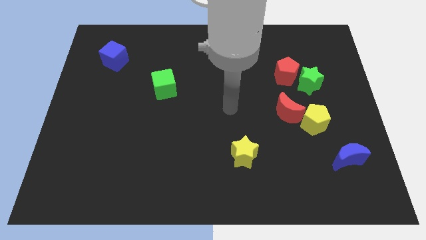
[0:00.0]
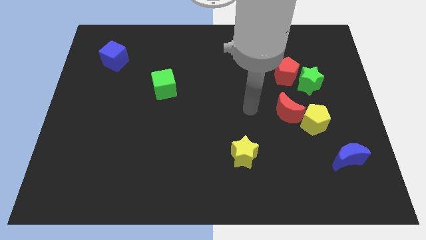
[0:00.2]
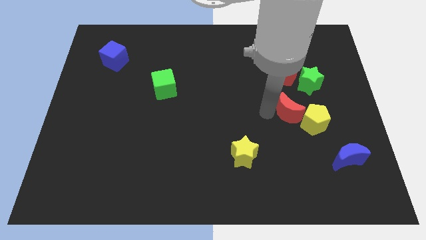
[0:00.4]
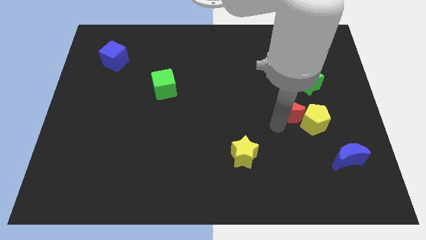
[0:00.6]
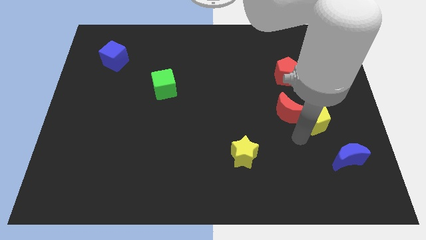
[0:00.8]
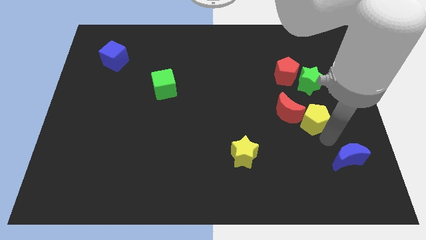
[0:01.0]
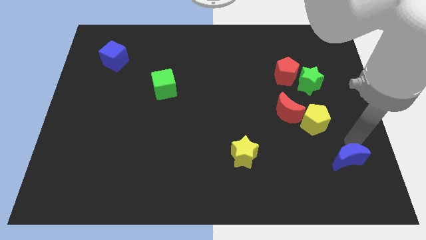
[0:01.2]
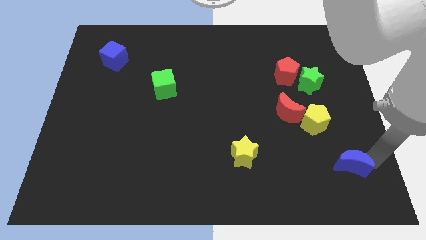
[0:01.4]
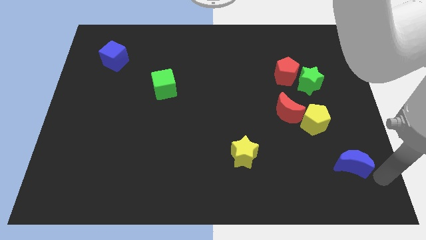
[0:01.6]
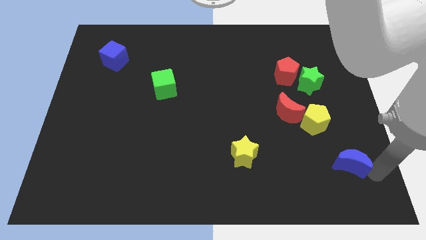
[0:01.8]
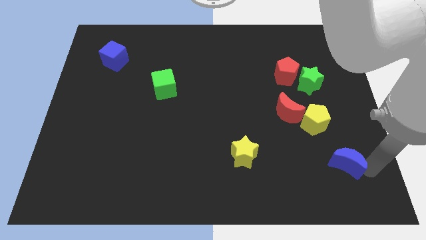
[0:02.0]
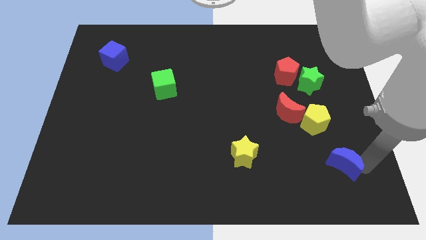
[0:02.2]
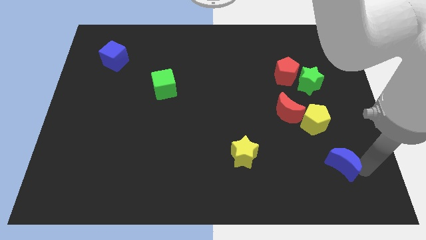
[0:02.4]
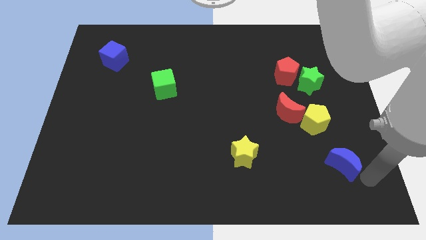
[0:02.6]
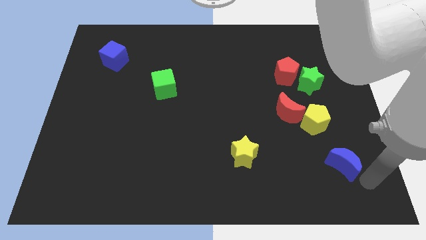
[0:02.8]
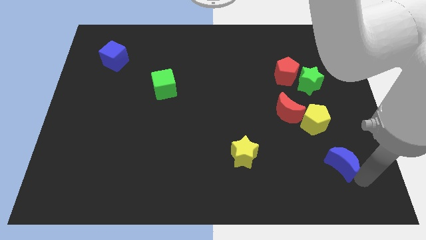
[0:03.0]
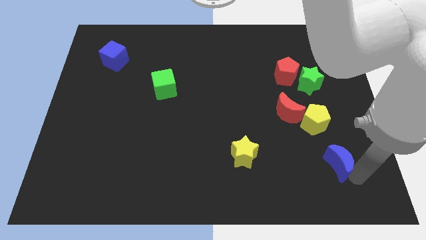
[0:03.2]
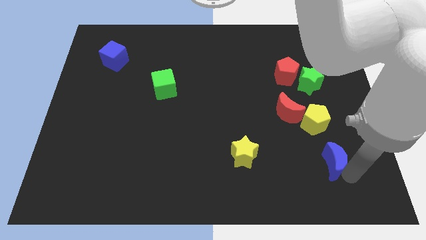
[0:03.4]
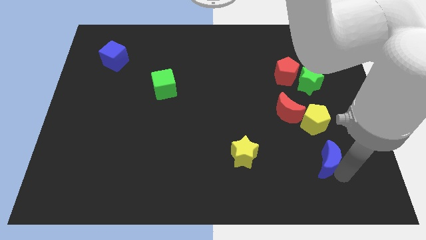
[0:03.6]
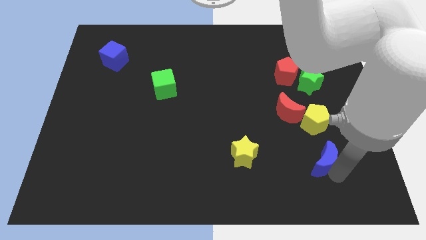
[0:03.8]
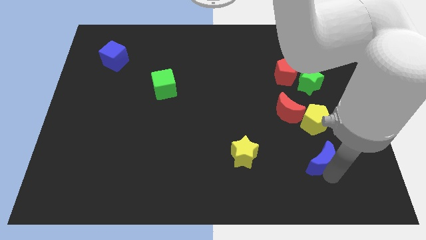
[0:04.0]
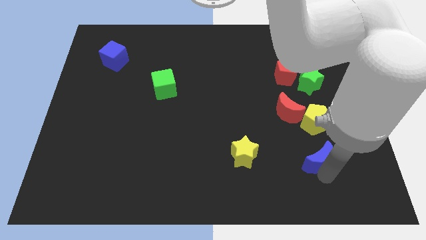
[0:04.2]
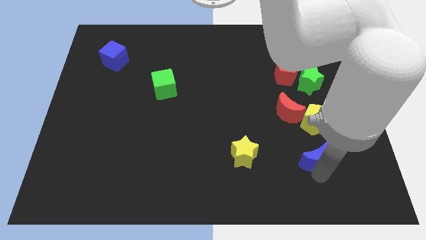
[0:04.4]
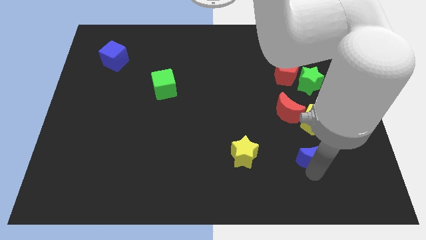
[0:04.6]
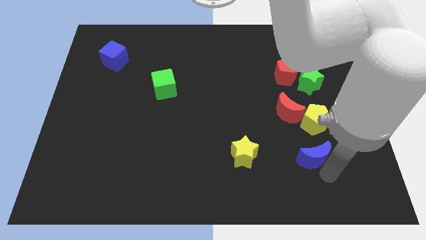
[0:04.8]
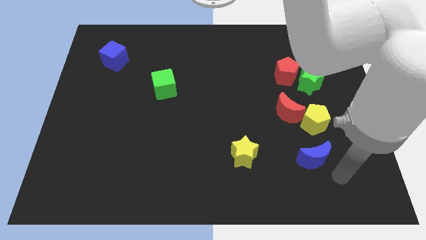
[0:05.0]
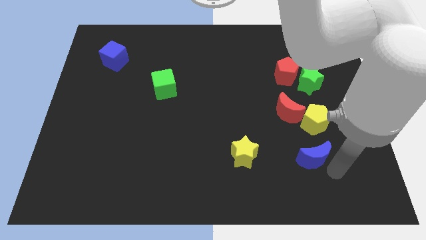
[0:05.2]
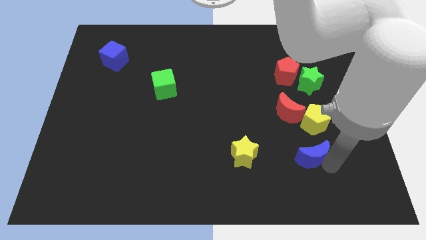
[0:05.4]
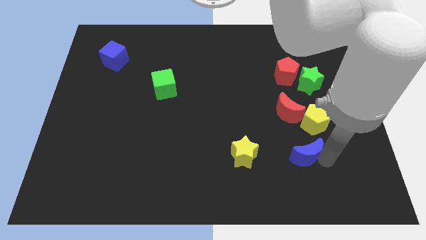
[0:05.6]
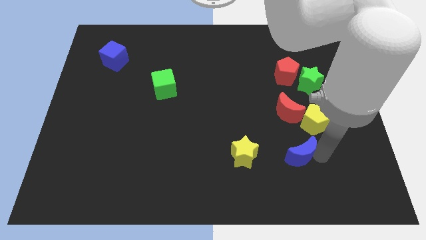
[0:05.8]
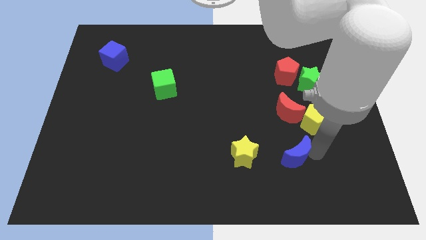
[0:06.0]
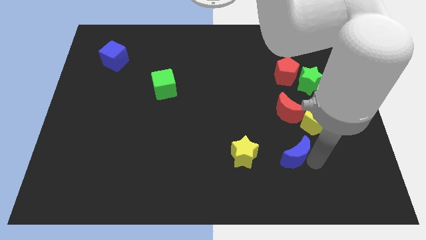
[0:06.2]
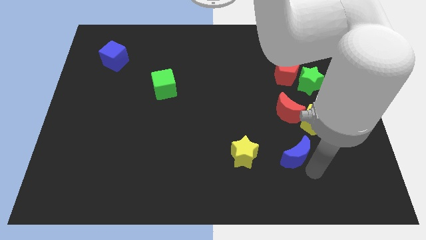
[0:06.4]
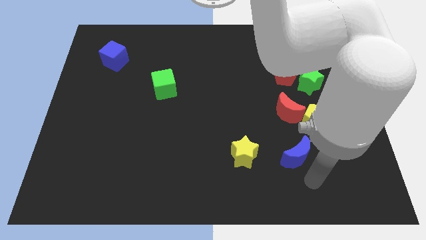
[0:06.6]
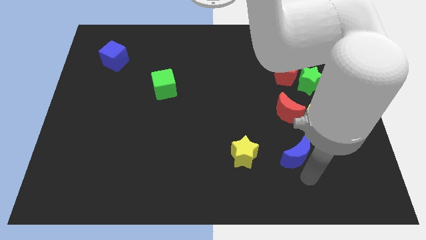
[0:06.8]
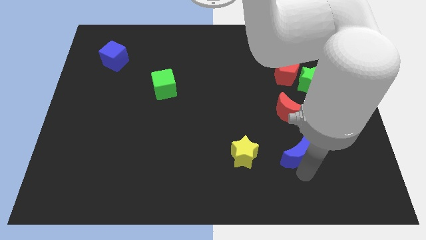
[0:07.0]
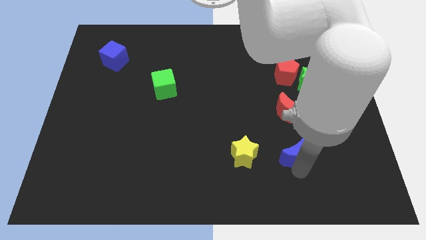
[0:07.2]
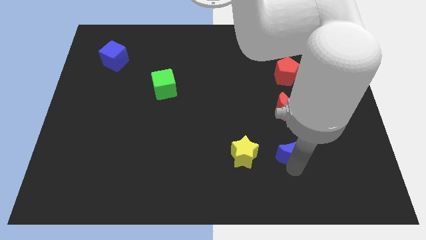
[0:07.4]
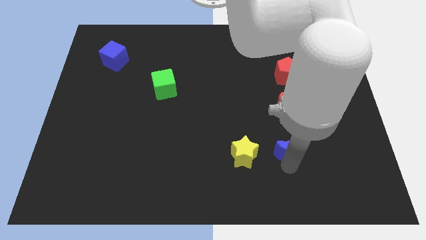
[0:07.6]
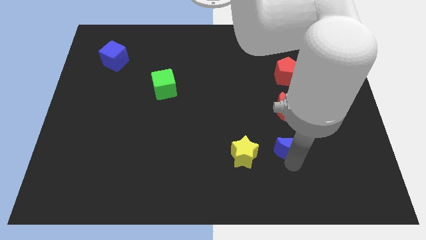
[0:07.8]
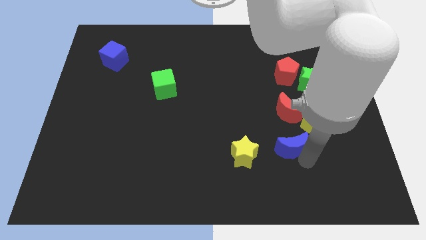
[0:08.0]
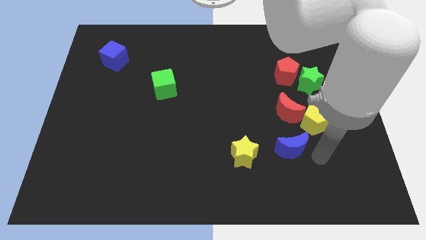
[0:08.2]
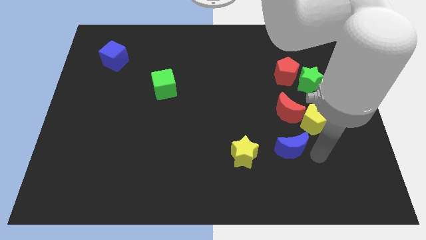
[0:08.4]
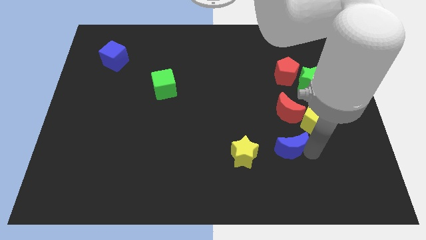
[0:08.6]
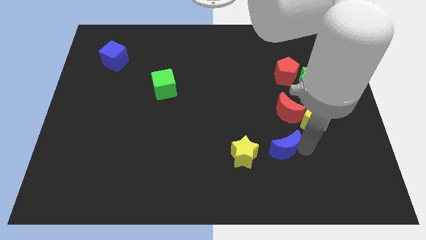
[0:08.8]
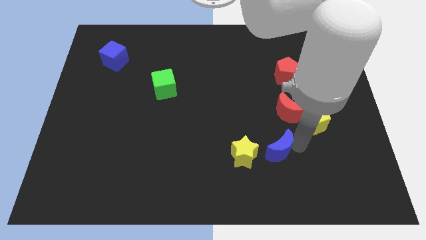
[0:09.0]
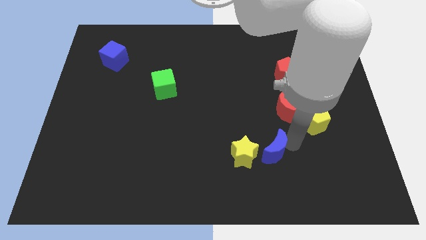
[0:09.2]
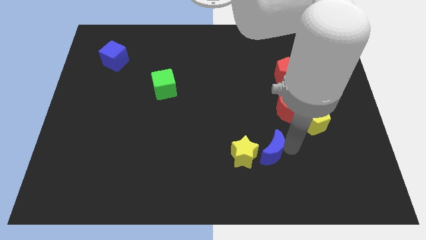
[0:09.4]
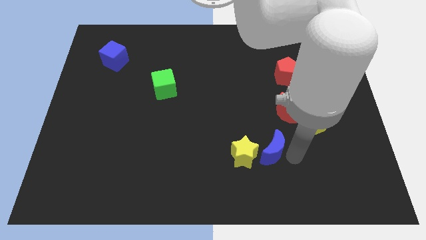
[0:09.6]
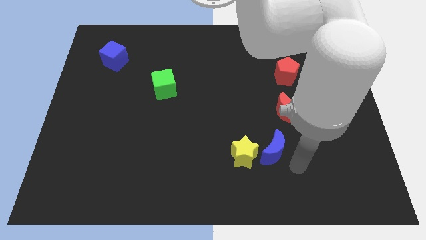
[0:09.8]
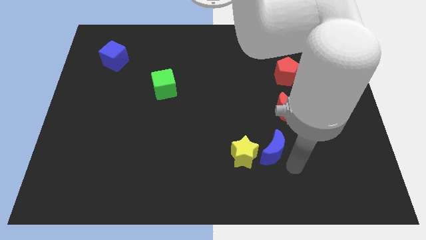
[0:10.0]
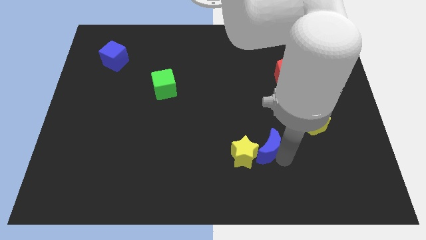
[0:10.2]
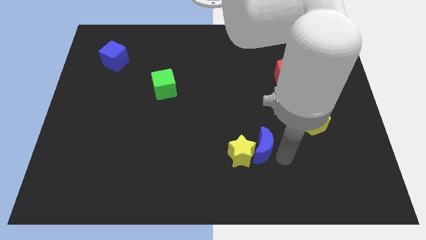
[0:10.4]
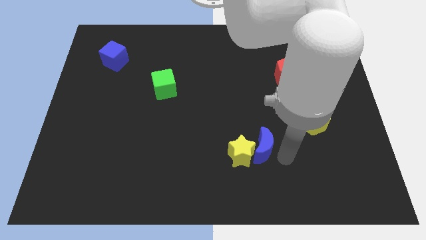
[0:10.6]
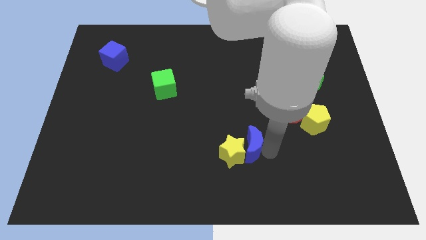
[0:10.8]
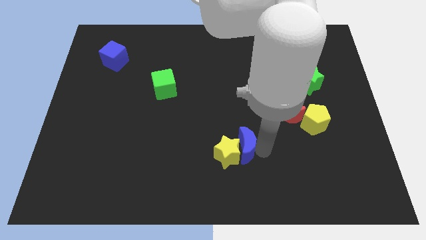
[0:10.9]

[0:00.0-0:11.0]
move the blue moon left

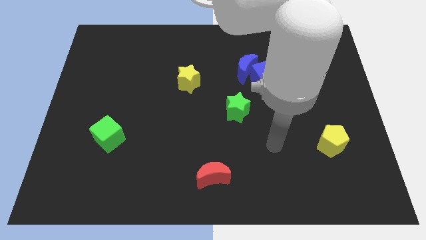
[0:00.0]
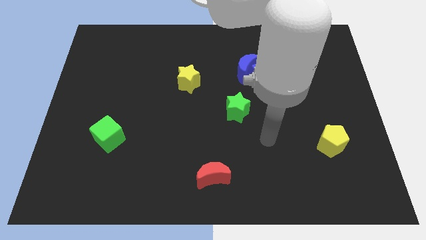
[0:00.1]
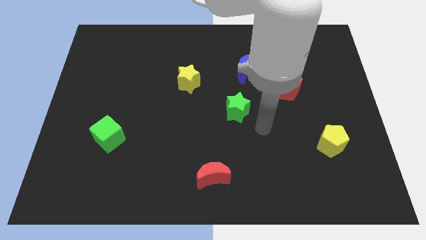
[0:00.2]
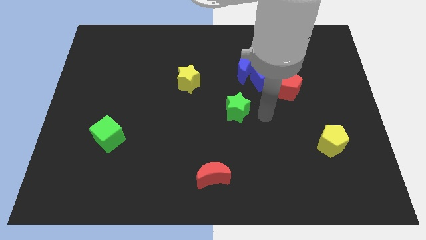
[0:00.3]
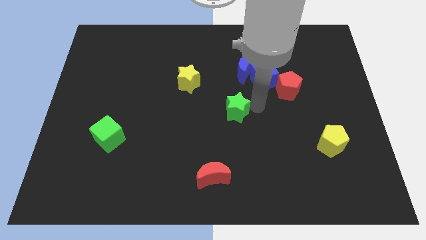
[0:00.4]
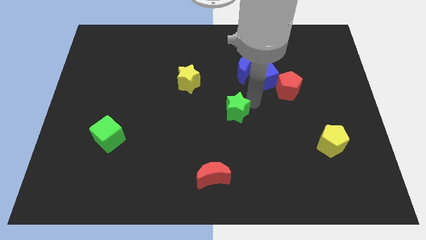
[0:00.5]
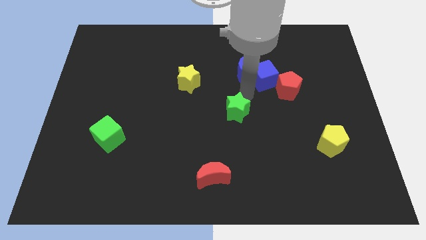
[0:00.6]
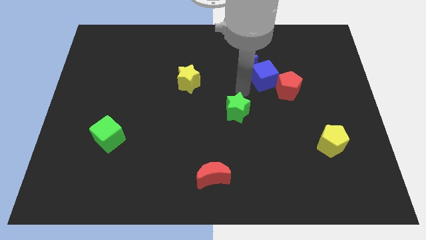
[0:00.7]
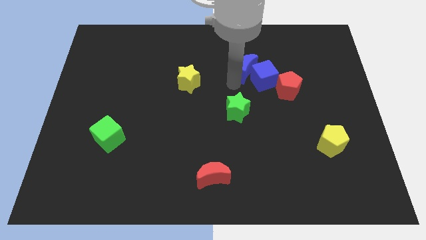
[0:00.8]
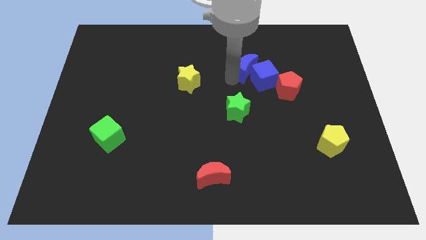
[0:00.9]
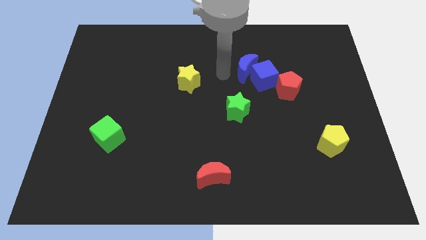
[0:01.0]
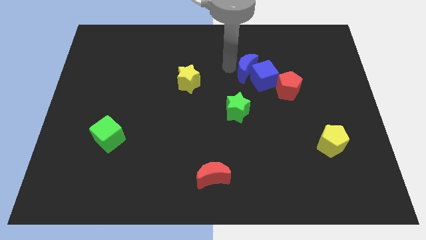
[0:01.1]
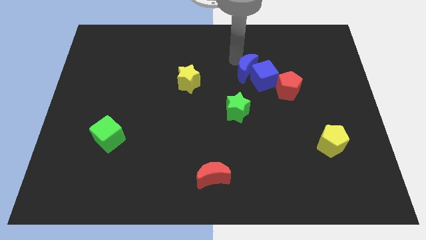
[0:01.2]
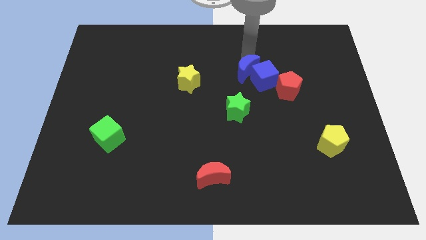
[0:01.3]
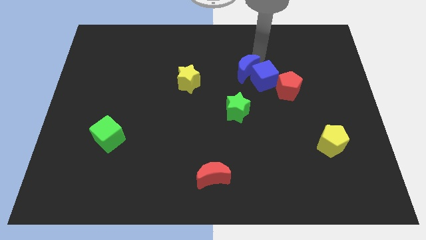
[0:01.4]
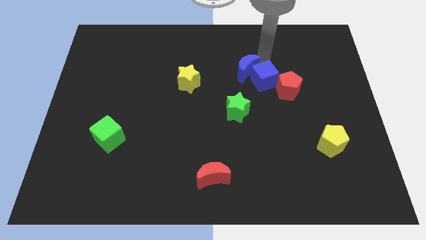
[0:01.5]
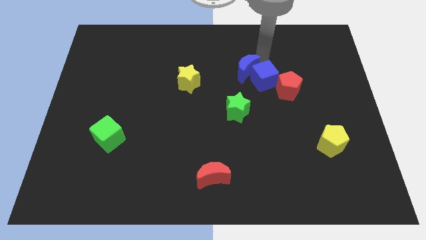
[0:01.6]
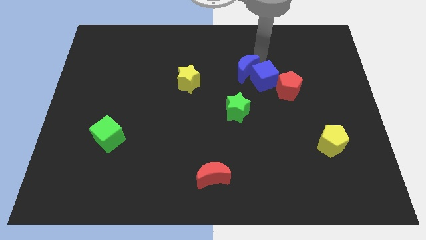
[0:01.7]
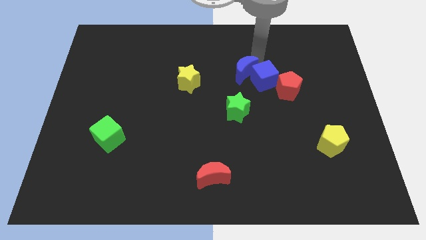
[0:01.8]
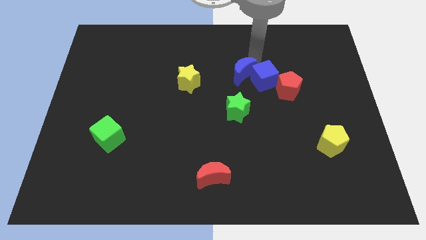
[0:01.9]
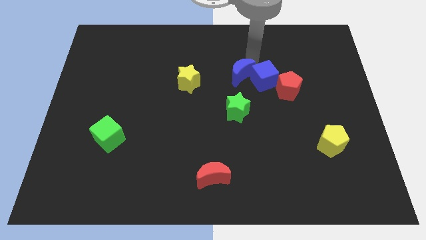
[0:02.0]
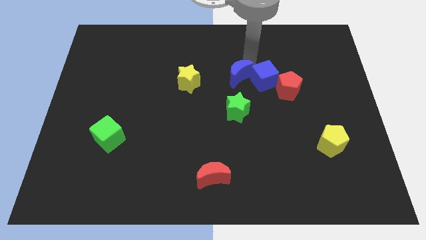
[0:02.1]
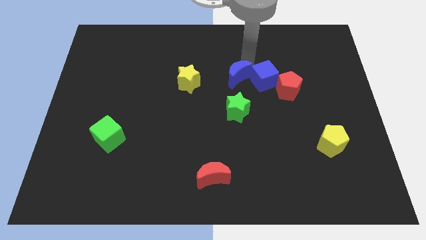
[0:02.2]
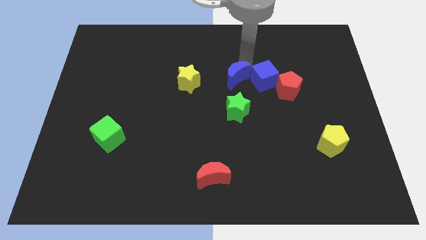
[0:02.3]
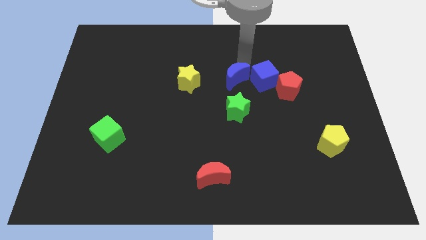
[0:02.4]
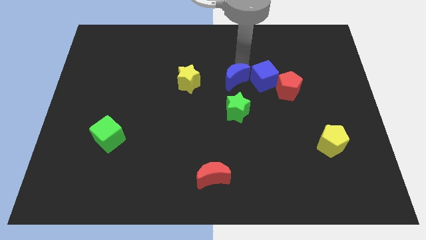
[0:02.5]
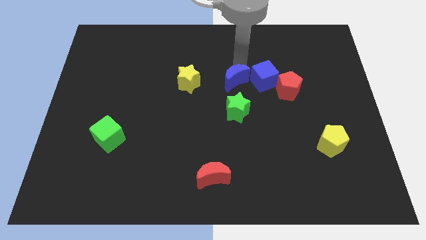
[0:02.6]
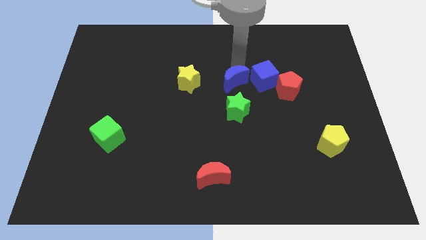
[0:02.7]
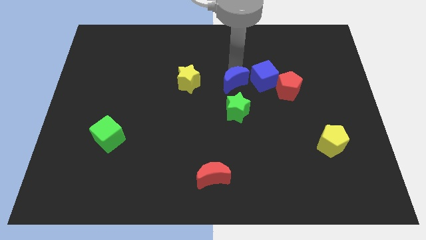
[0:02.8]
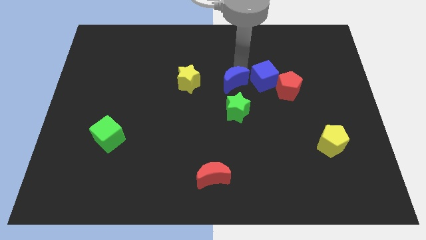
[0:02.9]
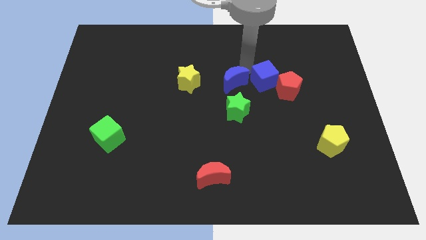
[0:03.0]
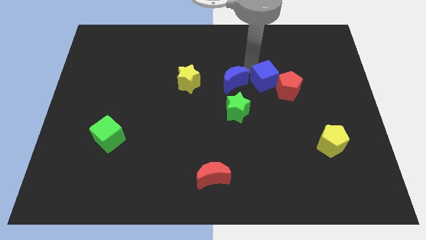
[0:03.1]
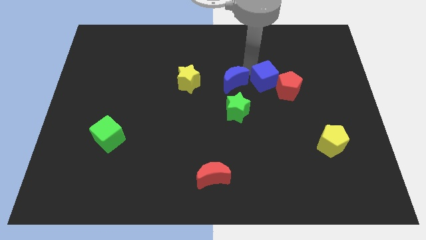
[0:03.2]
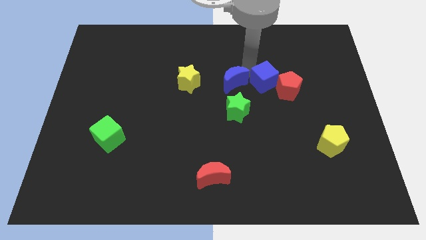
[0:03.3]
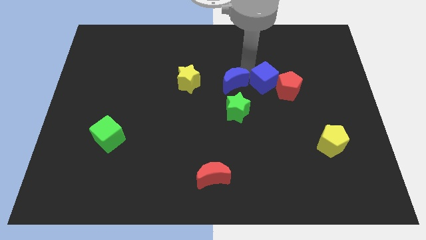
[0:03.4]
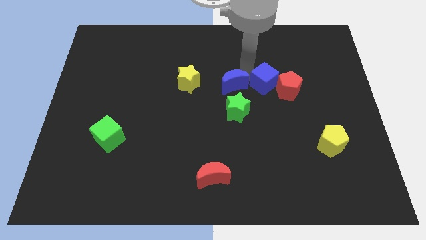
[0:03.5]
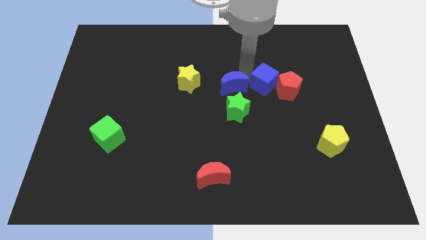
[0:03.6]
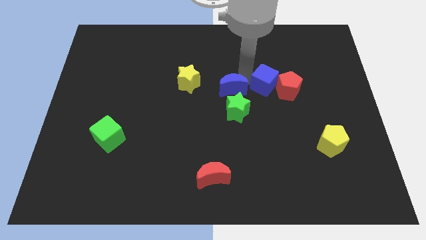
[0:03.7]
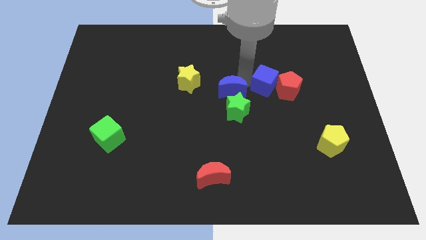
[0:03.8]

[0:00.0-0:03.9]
push the blue moon diagonally downwards and to the left somewhat
